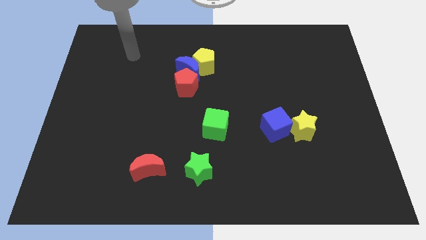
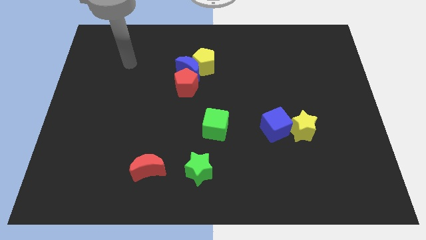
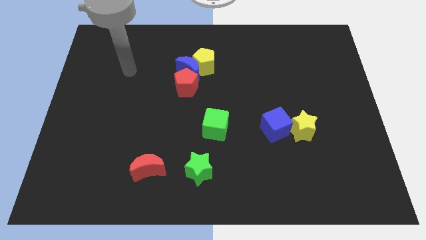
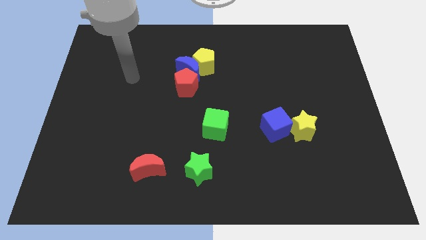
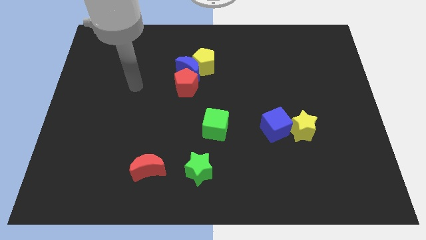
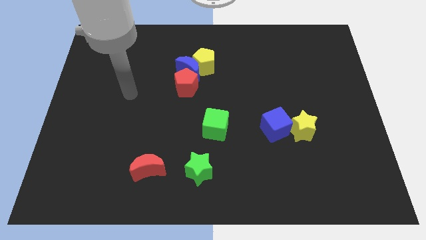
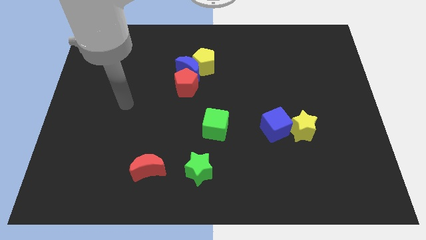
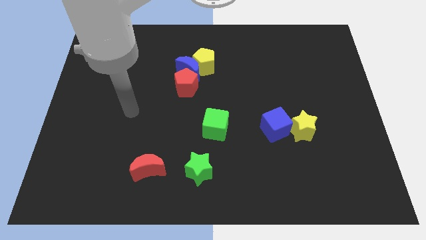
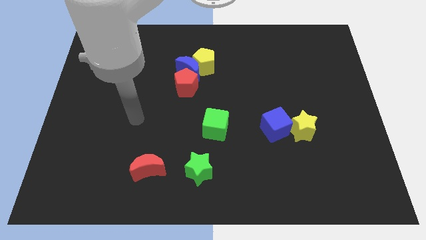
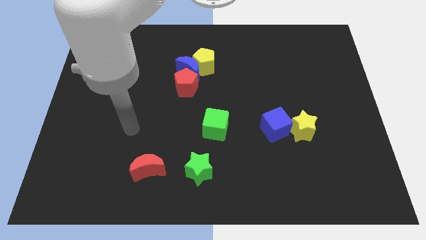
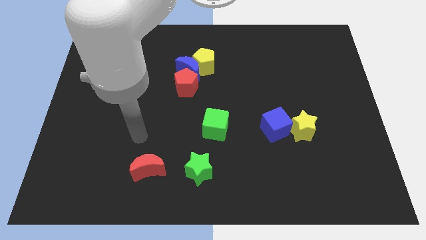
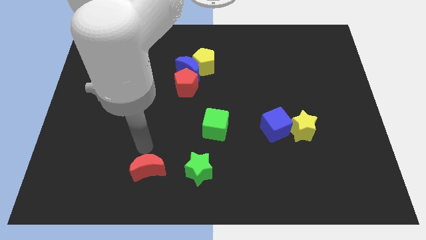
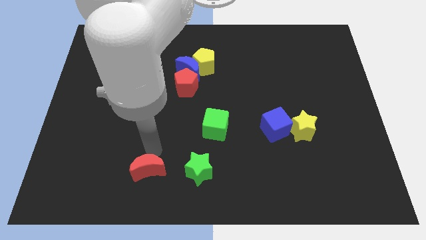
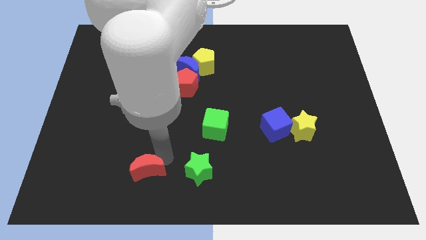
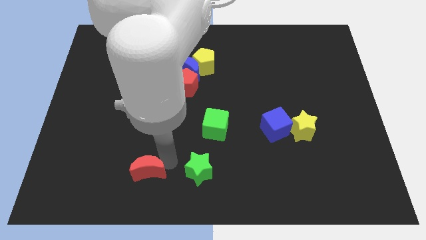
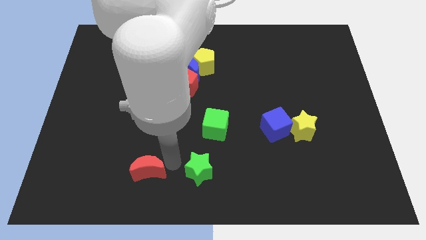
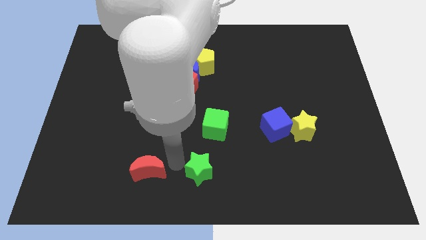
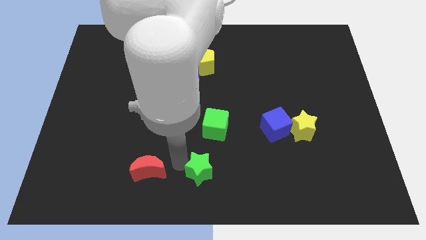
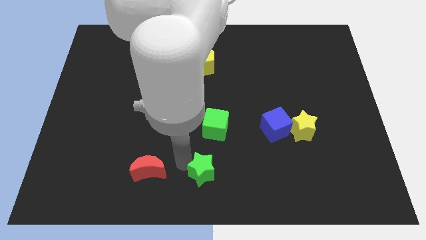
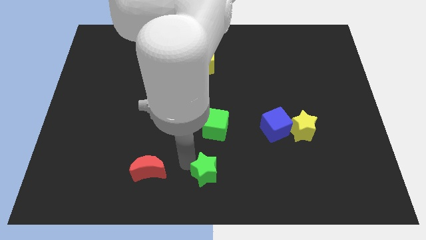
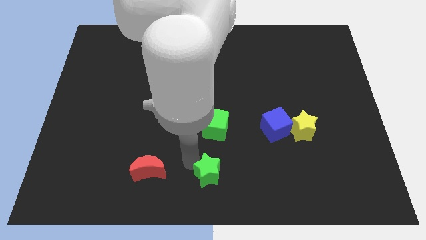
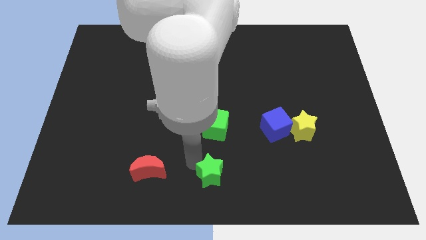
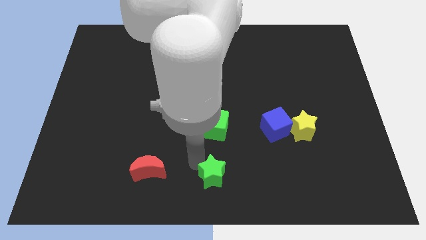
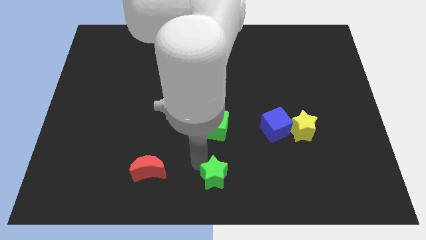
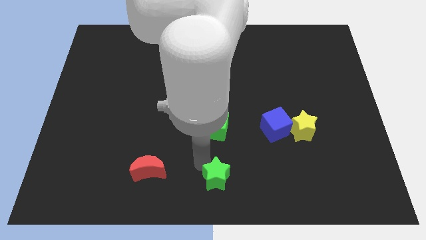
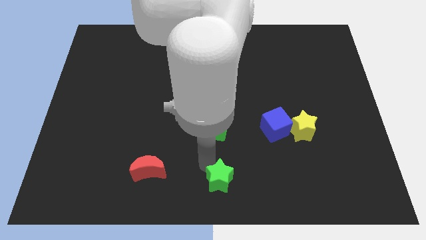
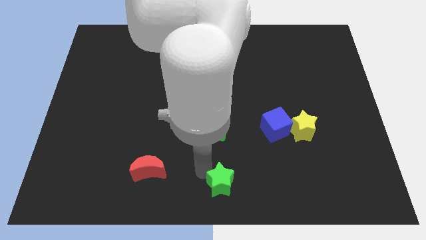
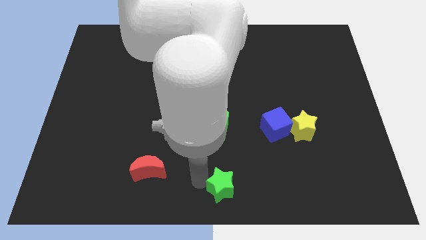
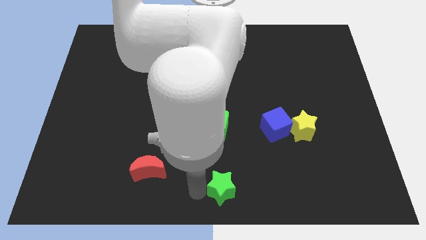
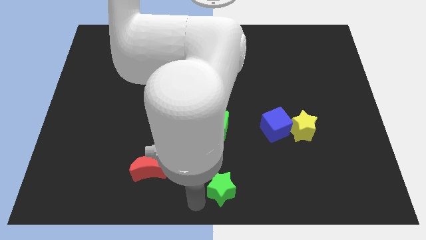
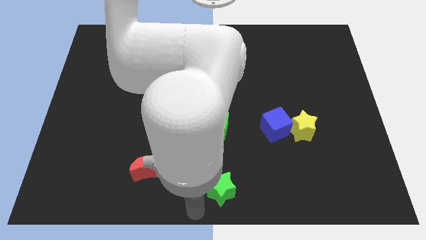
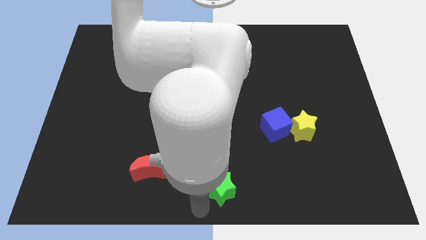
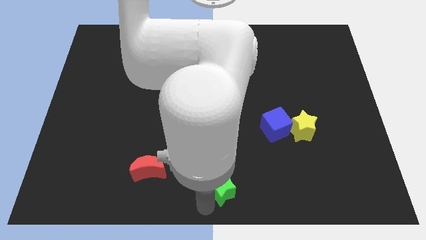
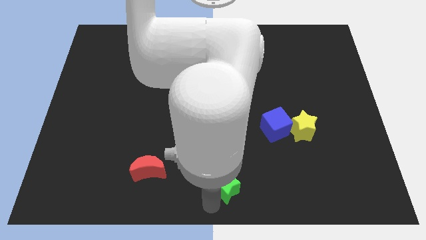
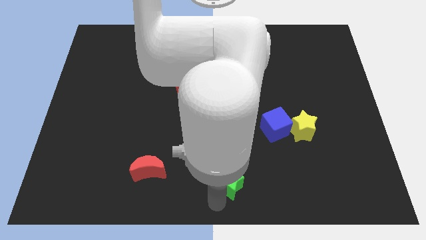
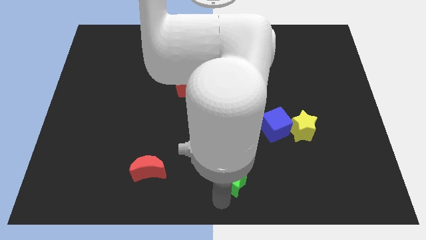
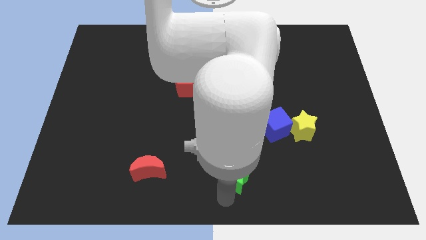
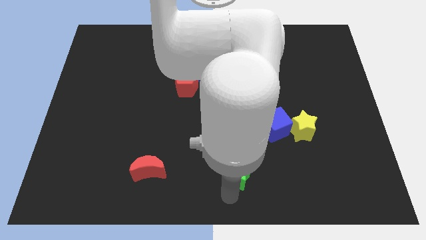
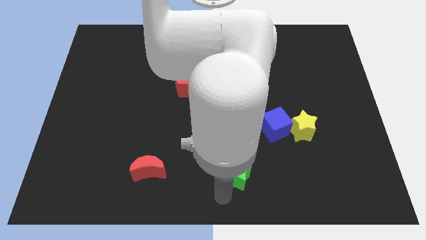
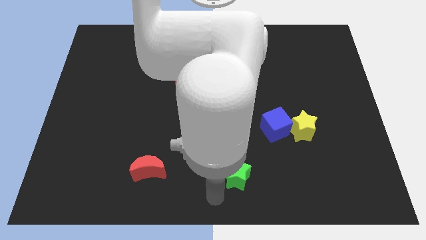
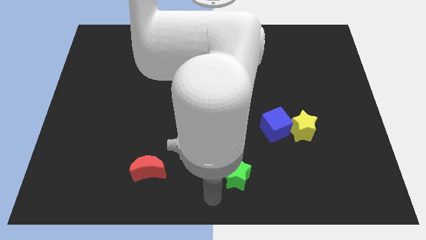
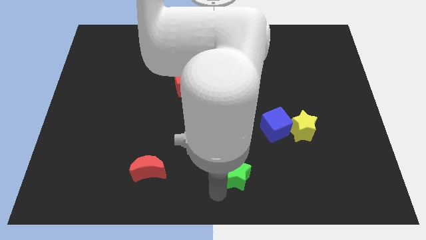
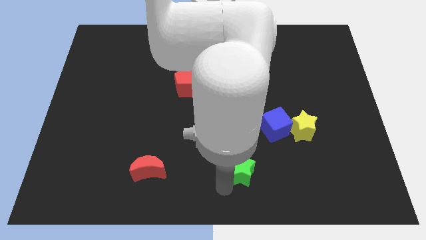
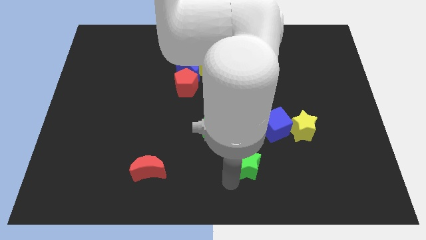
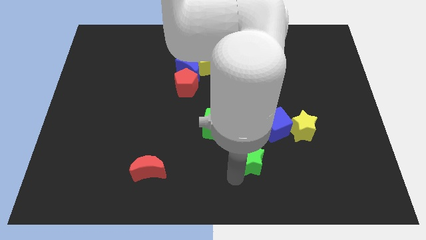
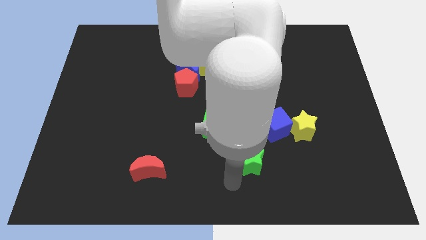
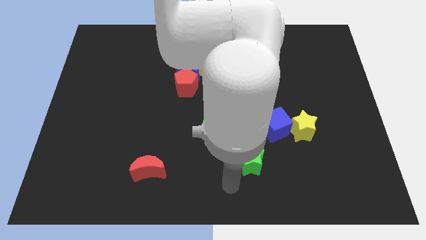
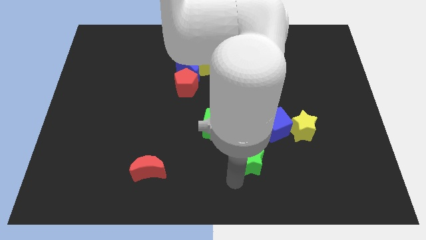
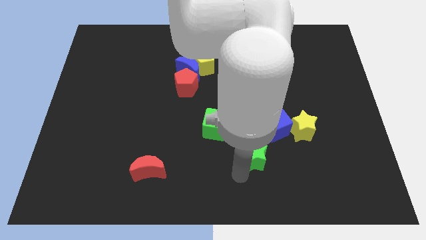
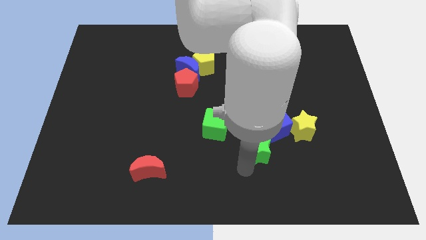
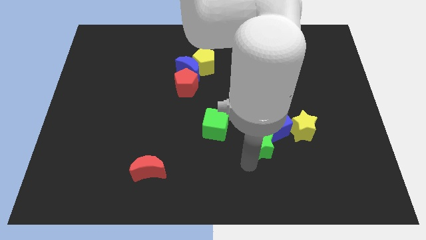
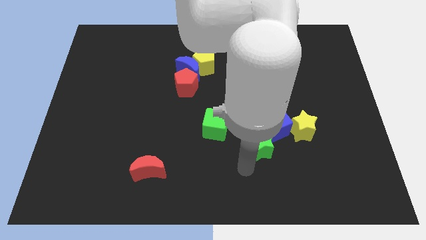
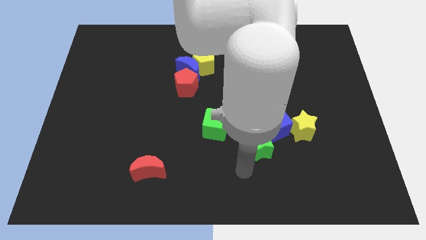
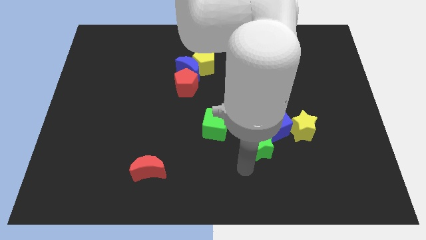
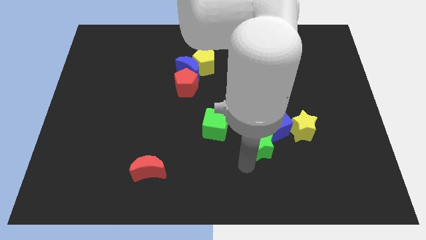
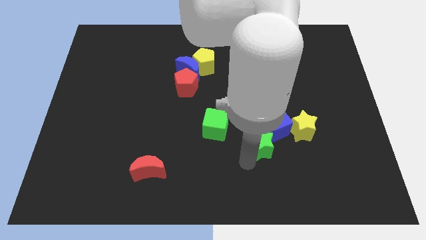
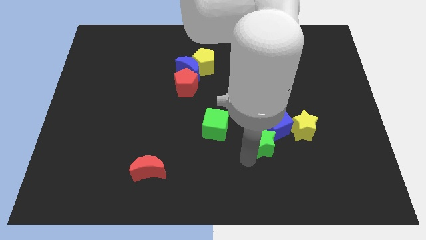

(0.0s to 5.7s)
move the green star close to the blue cube

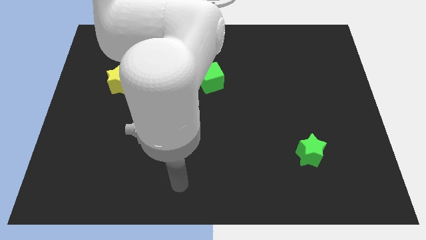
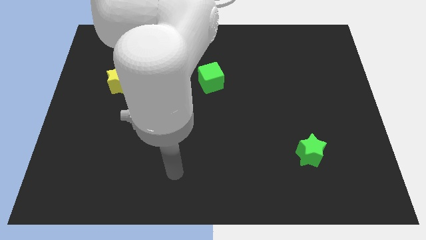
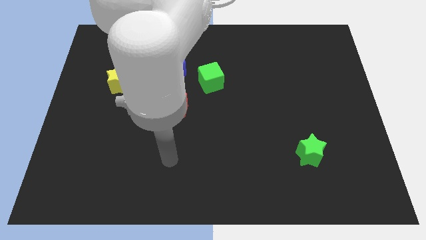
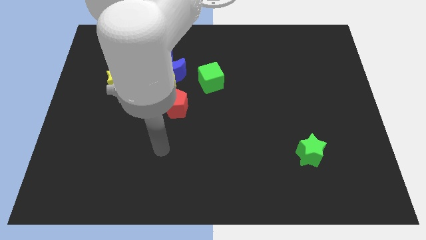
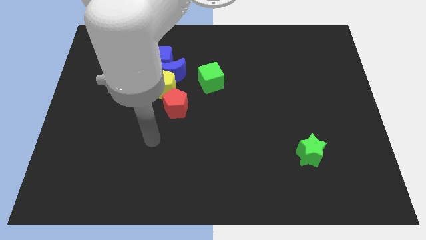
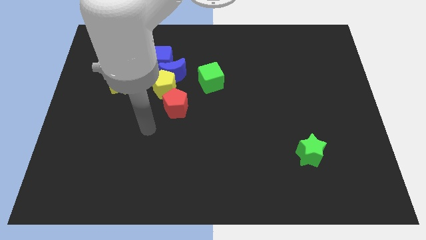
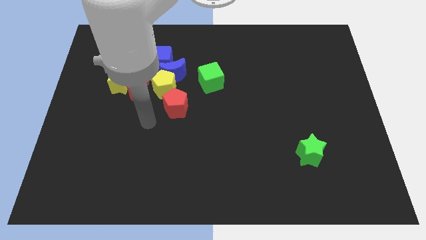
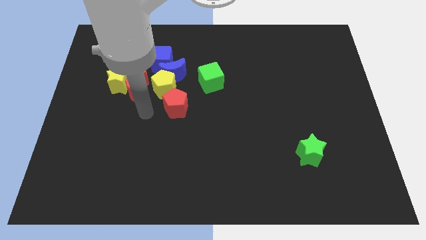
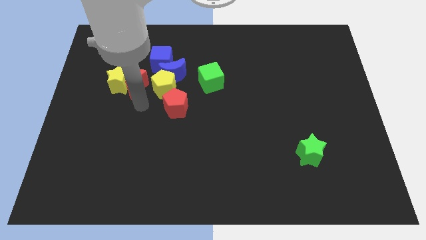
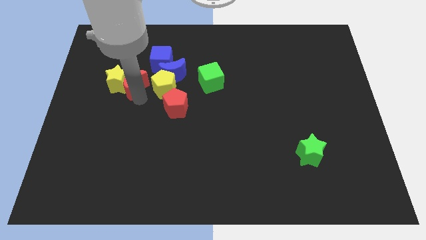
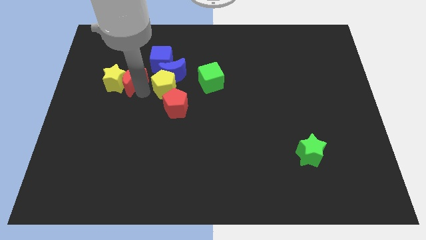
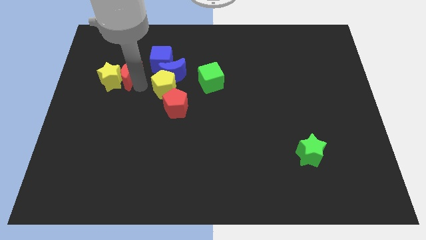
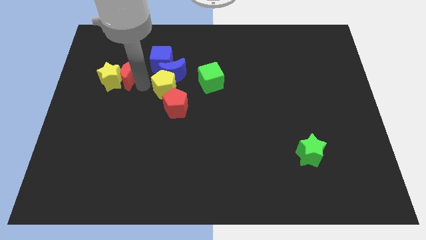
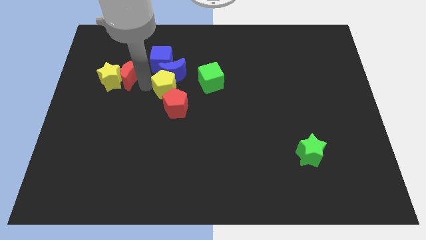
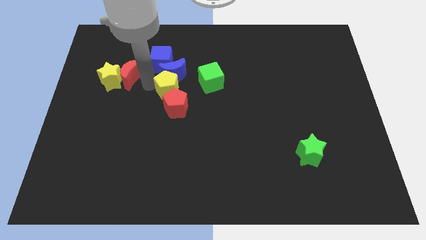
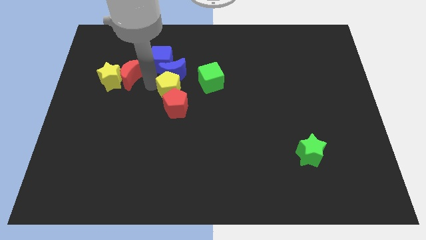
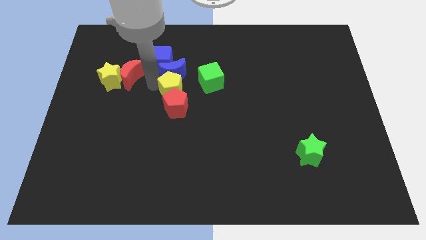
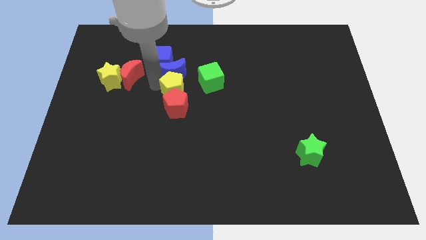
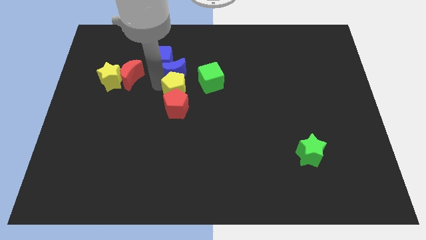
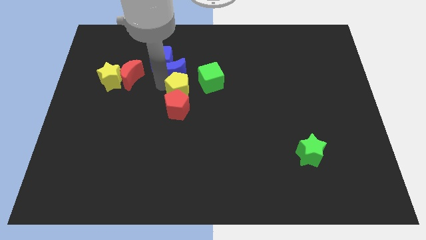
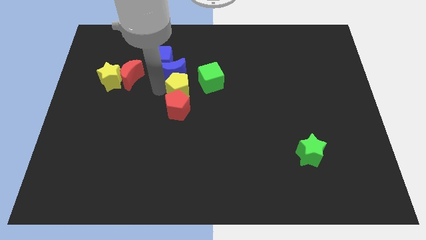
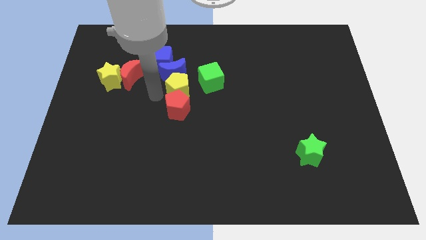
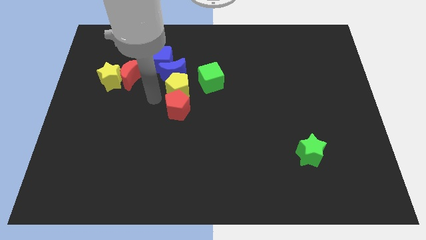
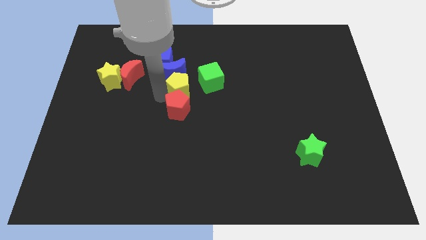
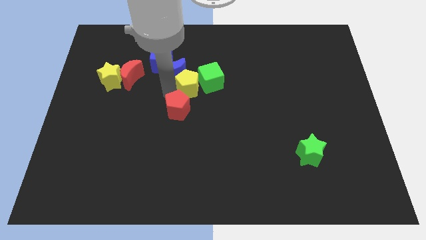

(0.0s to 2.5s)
push the yellow pentagon close to the green cube

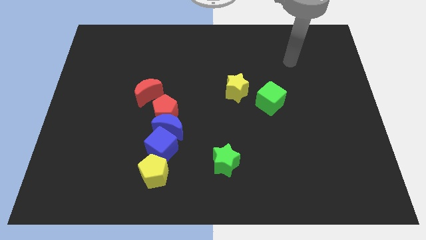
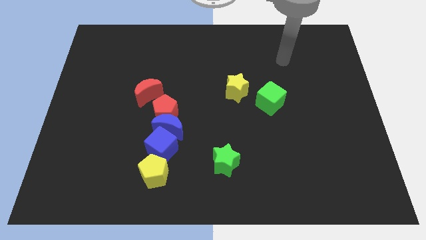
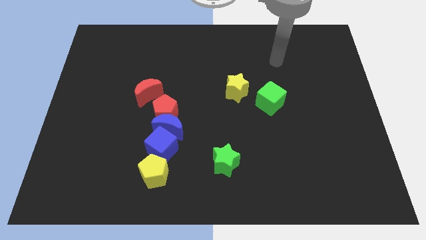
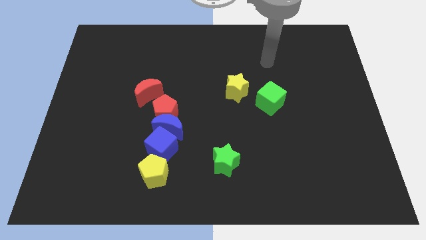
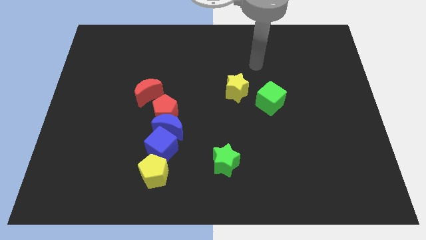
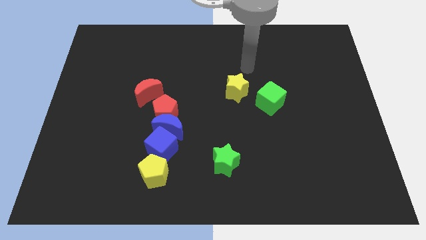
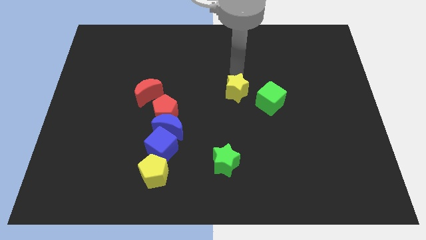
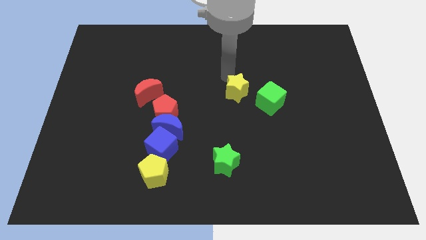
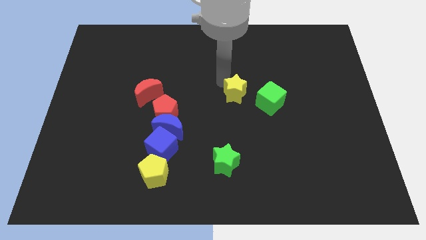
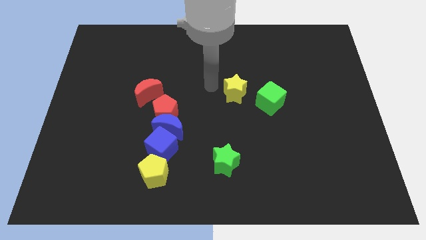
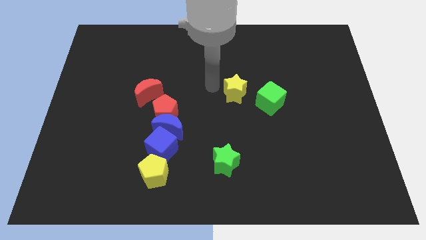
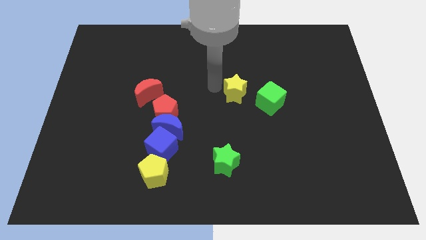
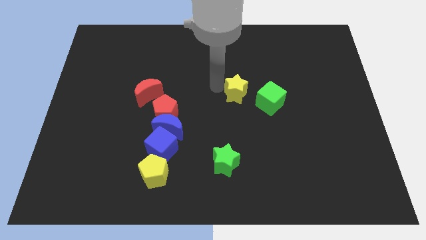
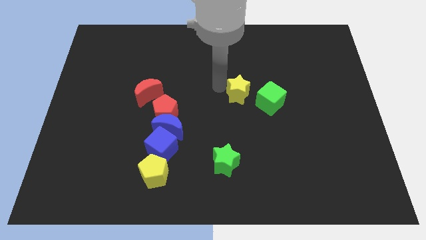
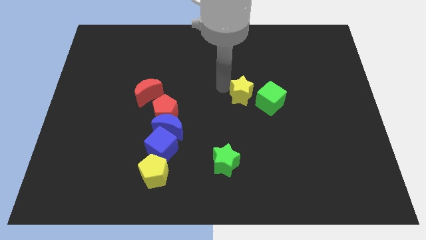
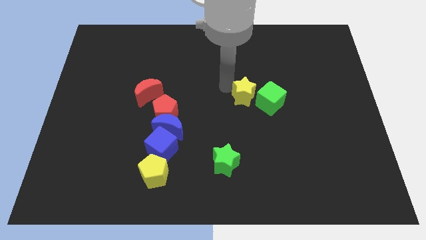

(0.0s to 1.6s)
put the yellow star next to the green cube
